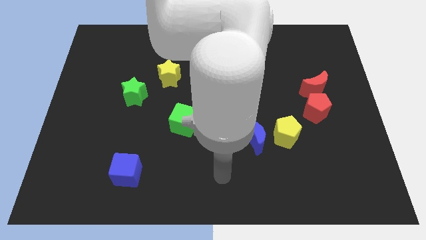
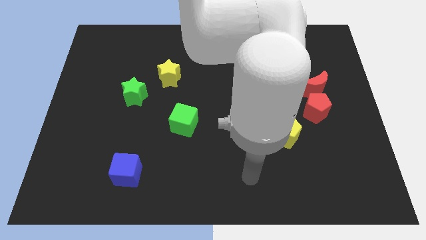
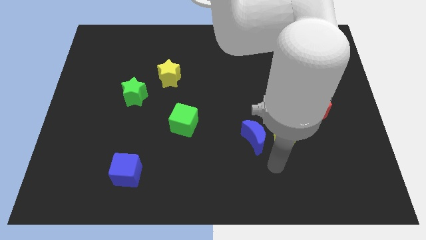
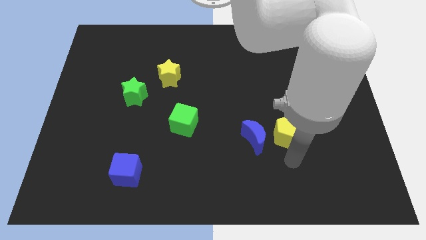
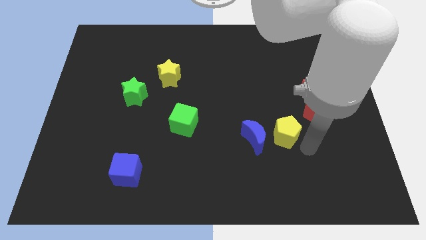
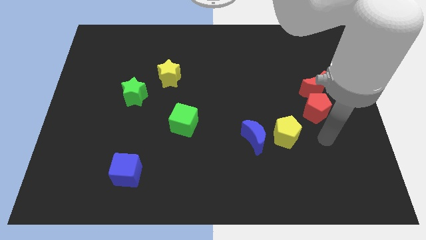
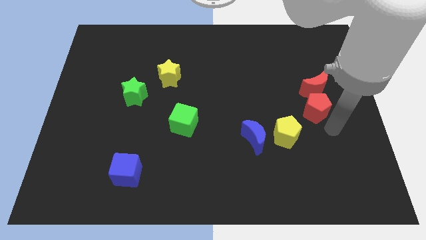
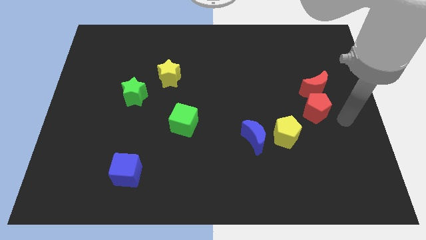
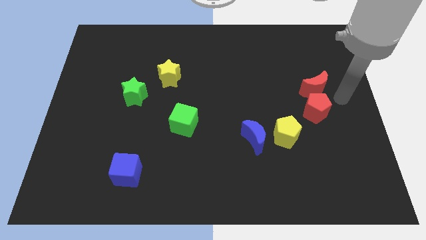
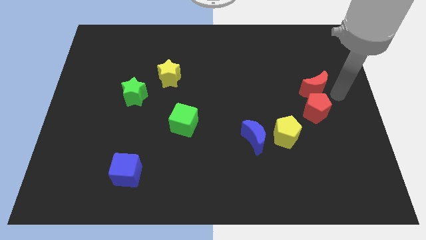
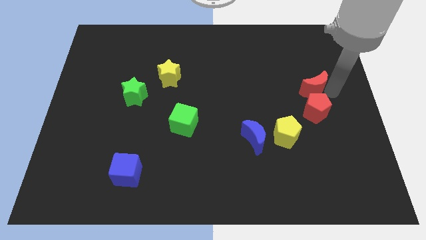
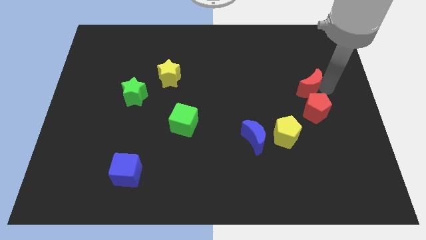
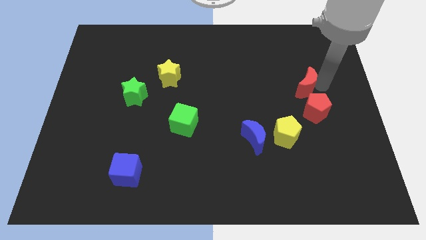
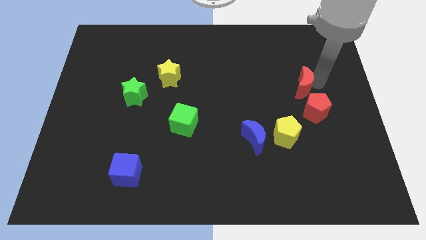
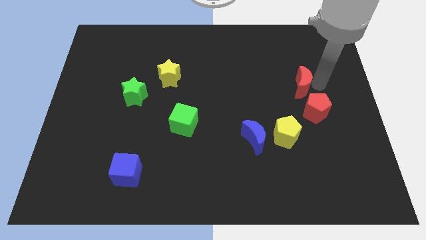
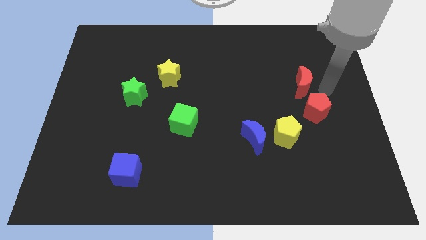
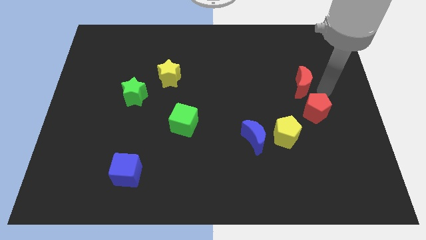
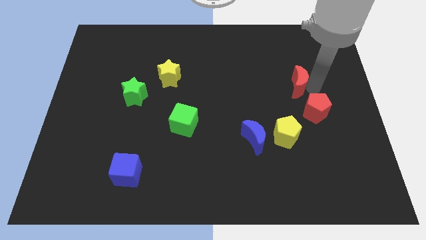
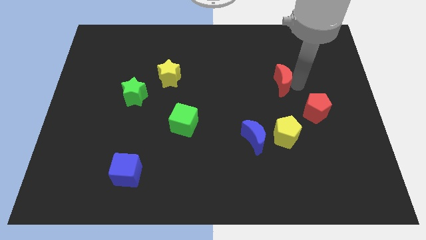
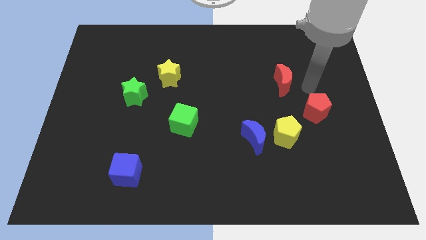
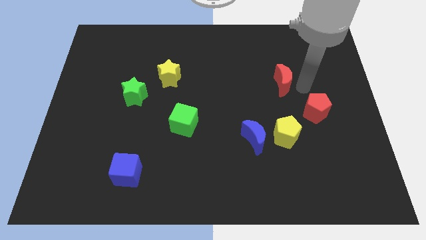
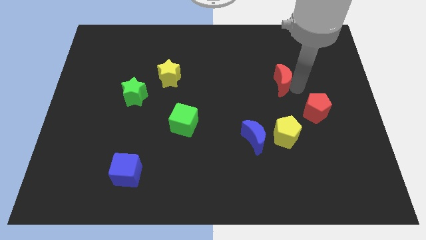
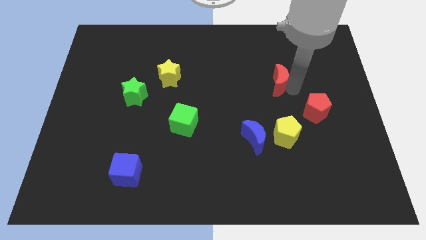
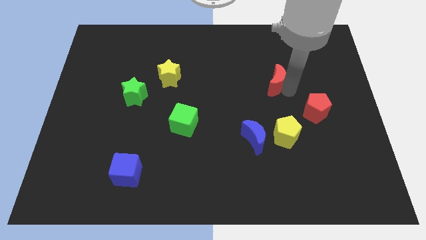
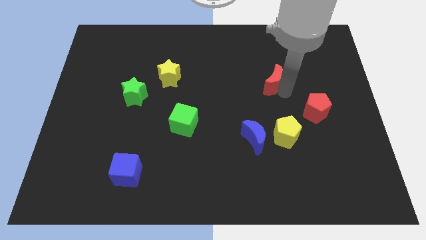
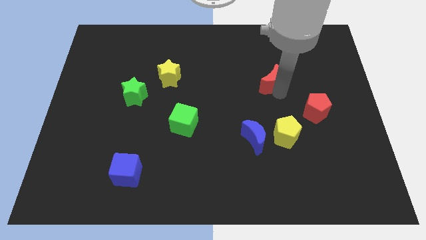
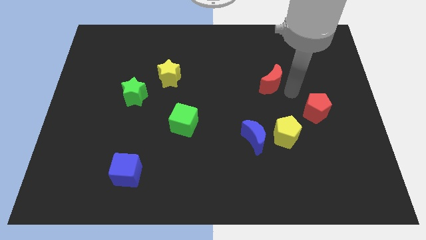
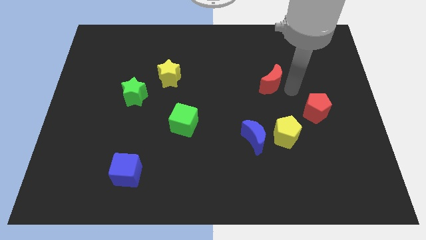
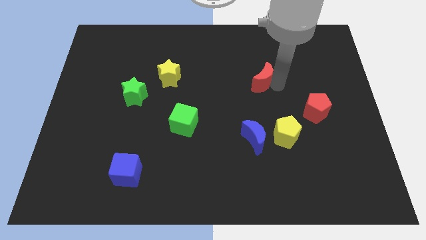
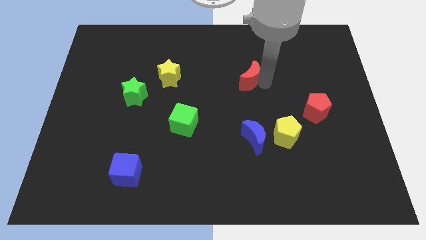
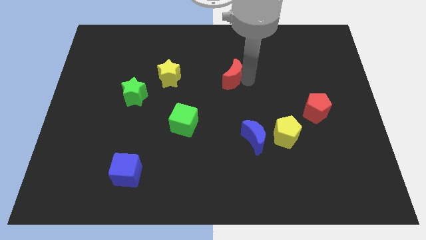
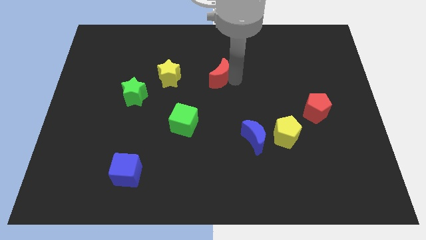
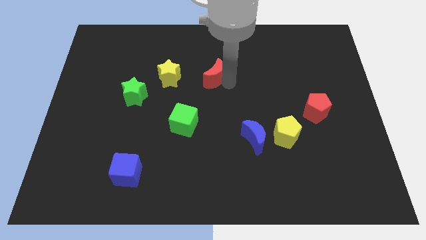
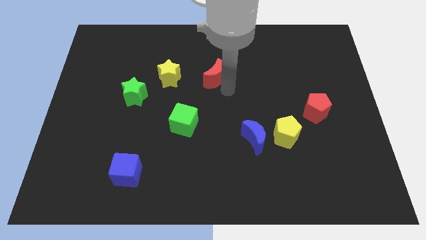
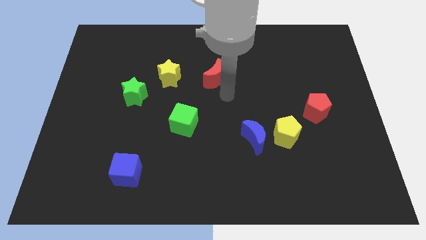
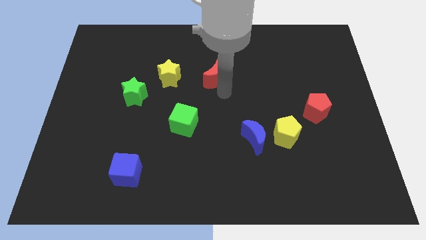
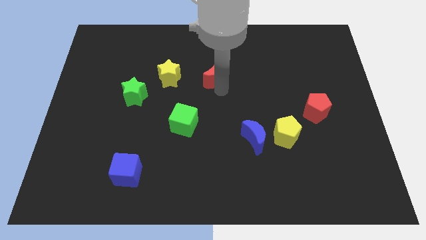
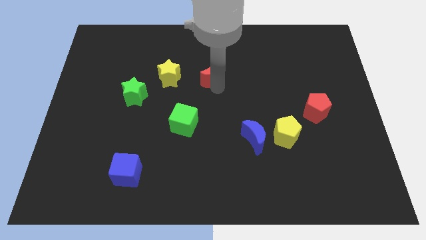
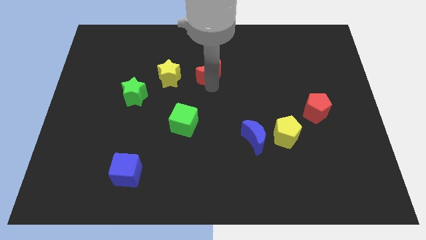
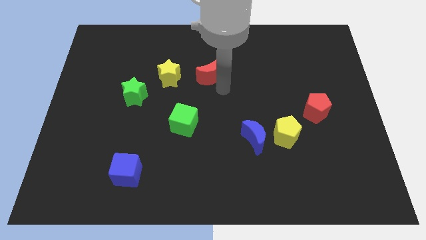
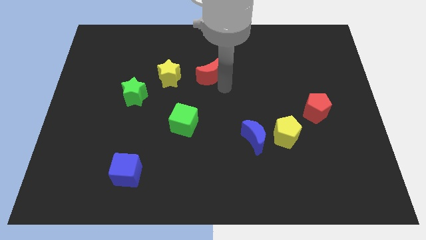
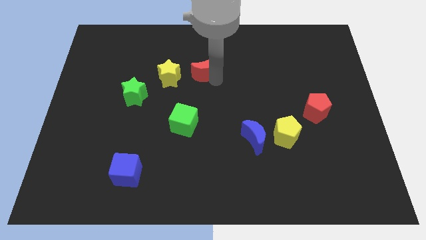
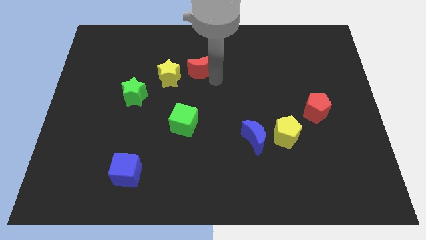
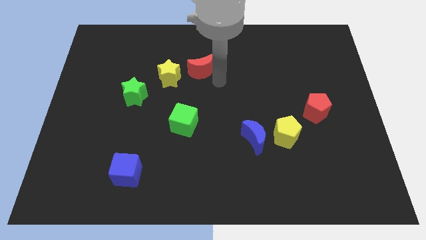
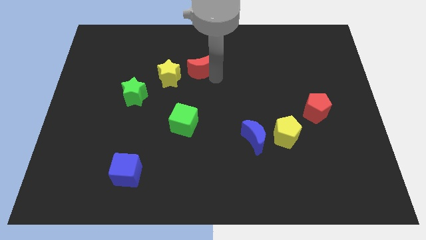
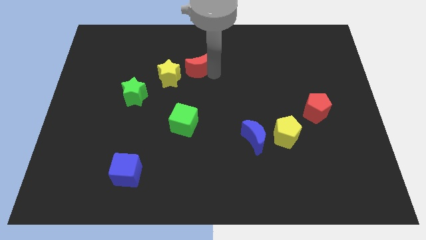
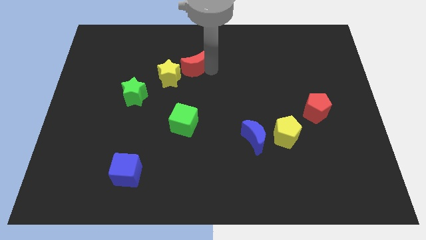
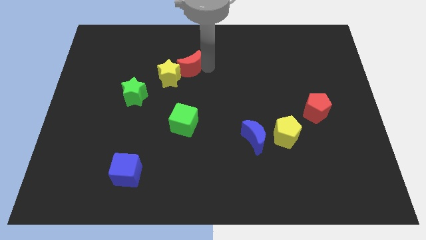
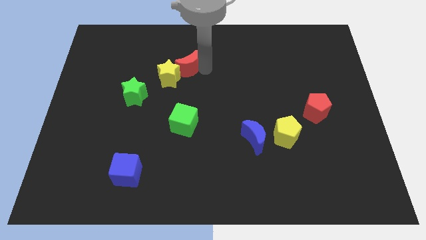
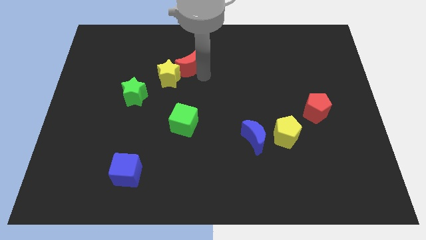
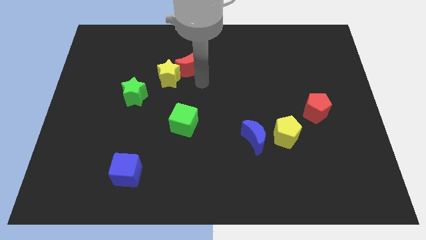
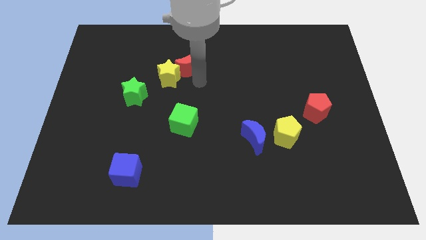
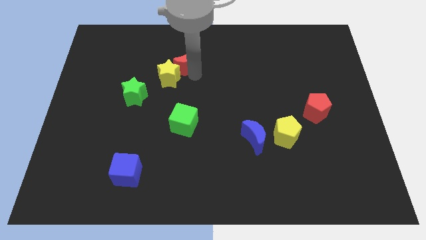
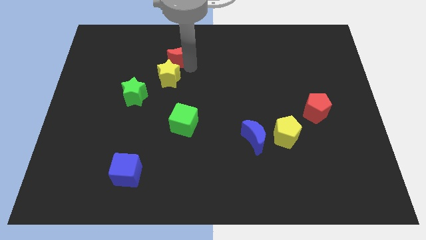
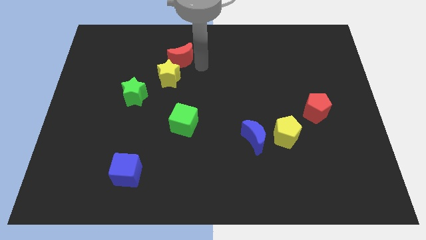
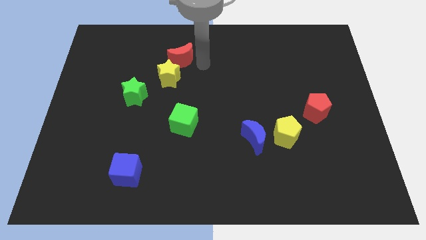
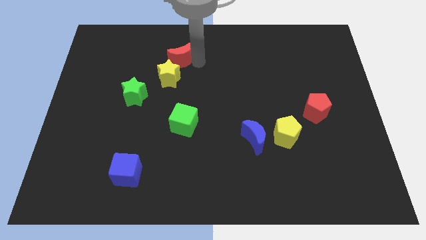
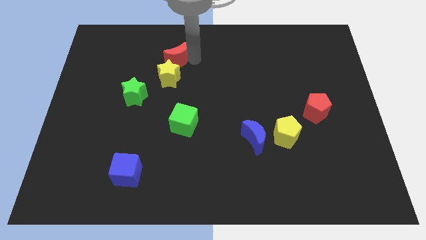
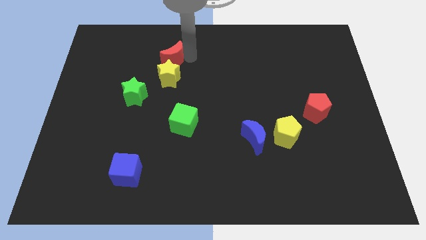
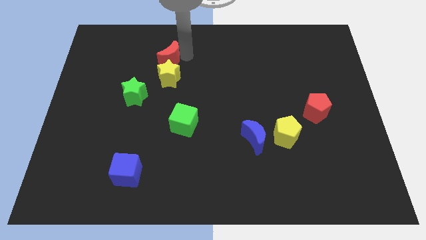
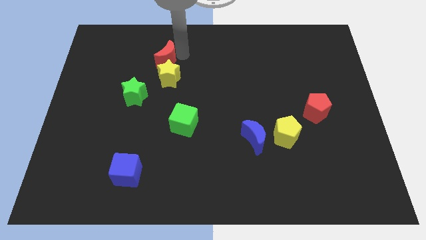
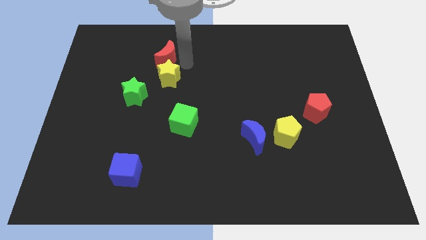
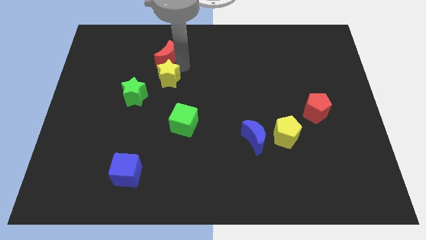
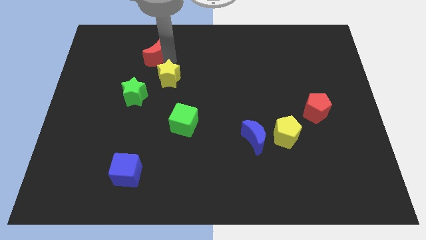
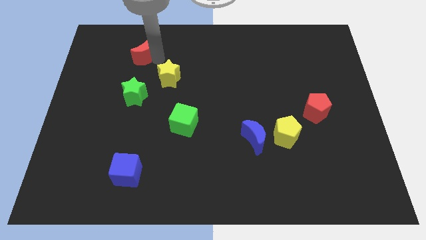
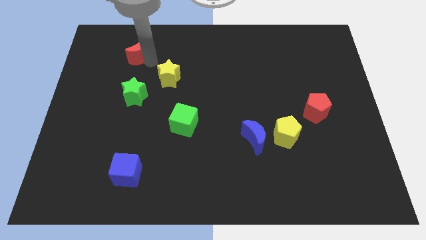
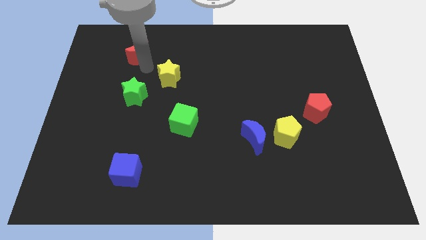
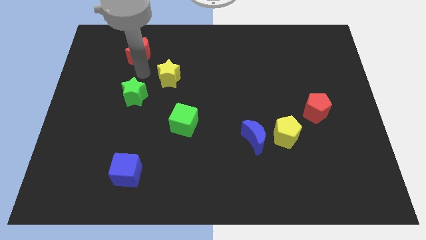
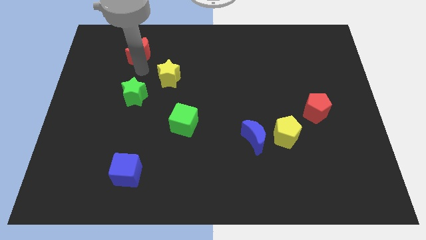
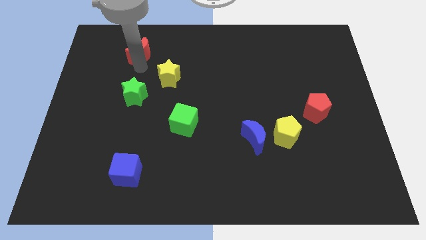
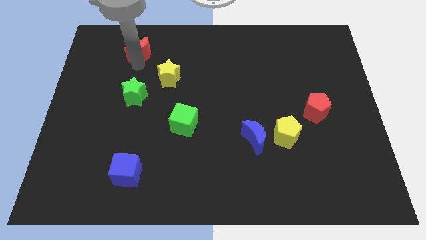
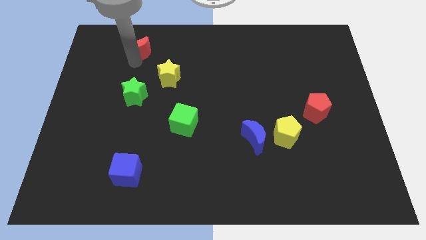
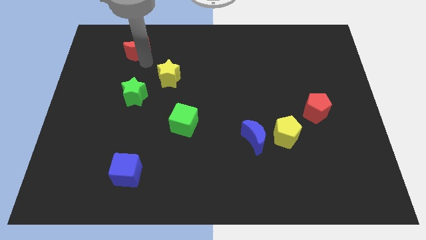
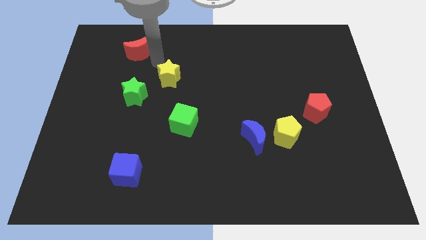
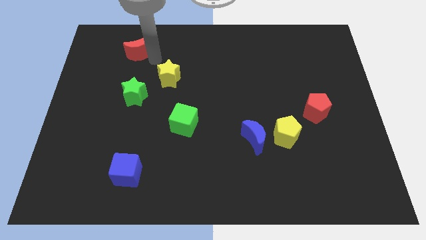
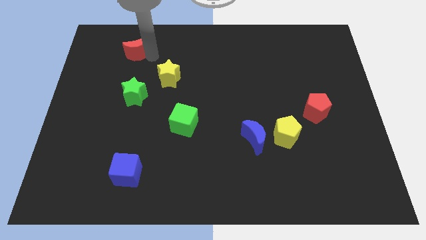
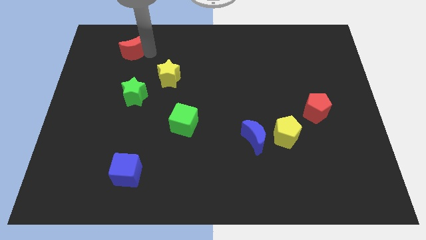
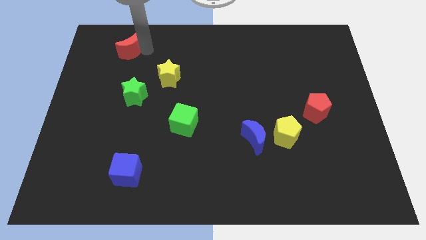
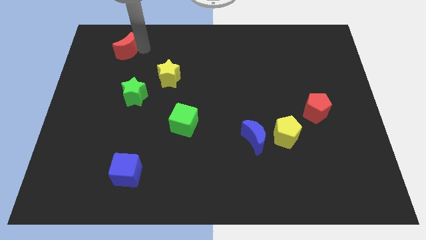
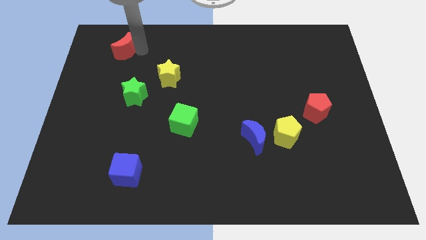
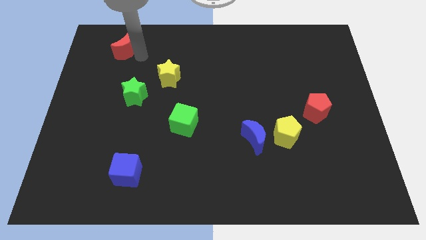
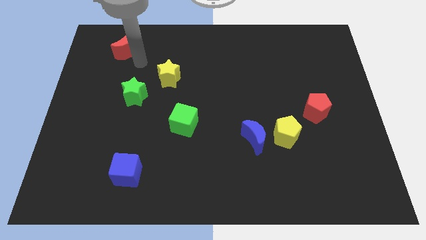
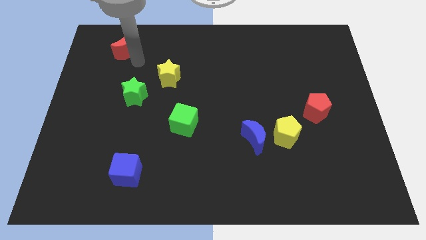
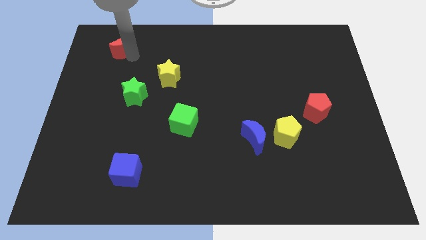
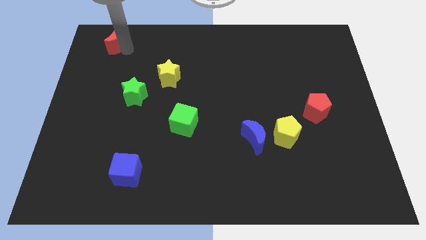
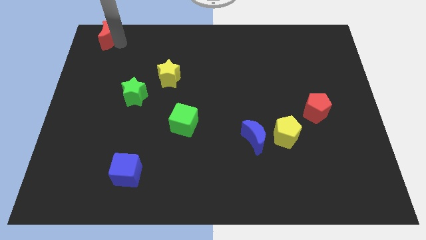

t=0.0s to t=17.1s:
push the red moon to the top left corner
